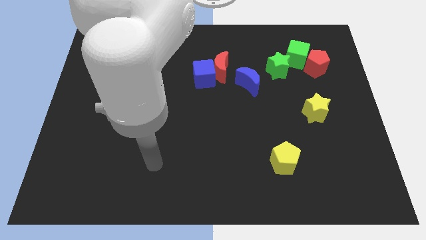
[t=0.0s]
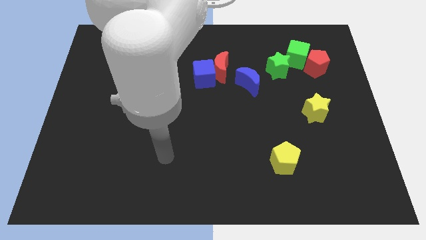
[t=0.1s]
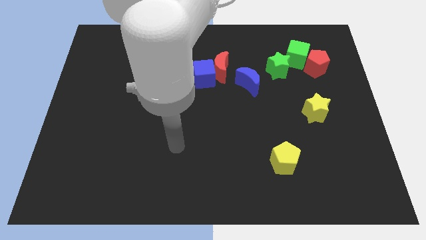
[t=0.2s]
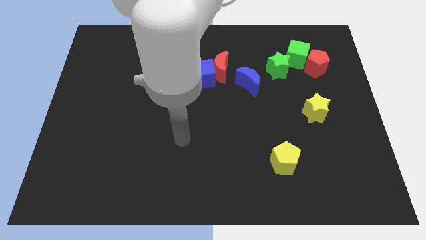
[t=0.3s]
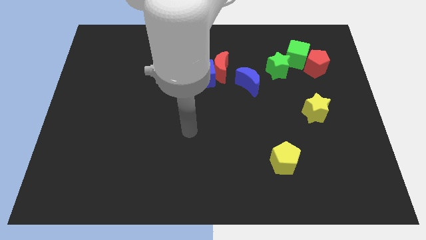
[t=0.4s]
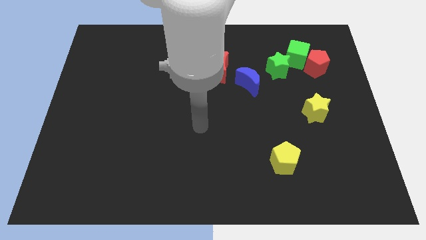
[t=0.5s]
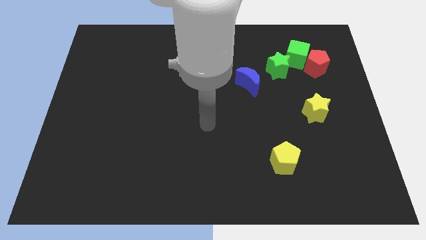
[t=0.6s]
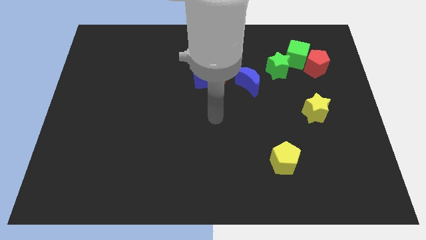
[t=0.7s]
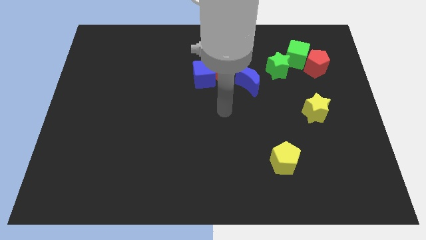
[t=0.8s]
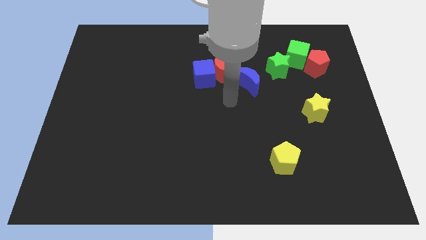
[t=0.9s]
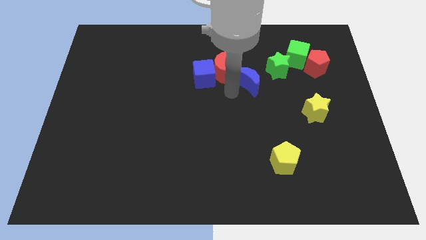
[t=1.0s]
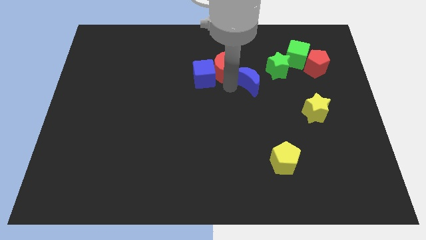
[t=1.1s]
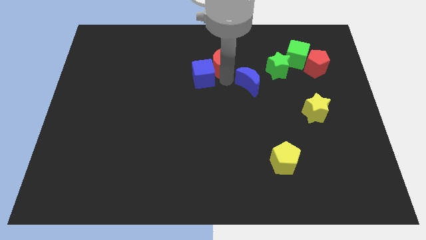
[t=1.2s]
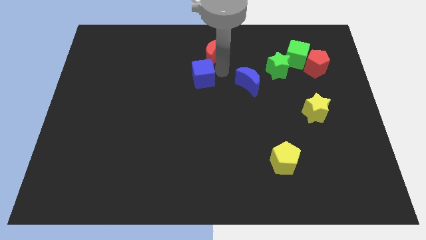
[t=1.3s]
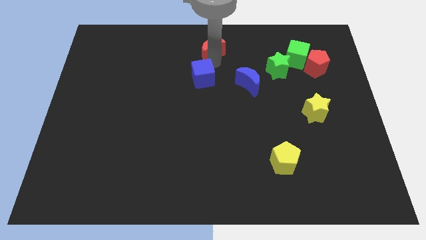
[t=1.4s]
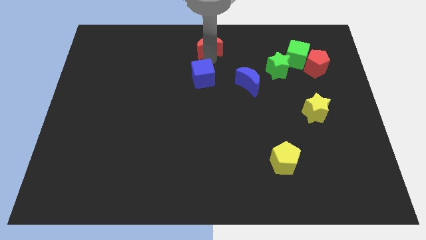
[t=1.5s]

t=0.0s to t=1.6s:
separate the blue cube from the red moon

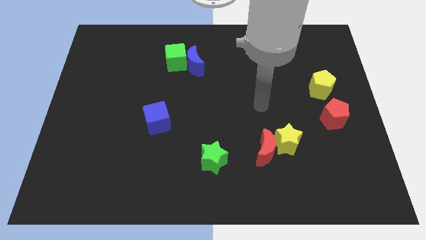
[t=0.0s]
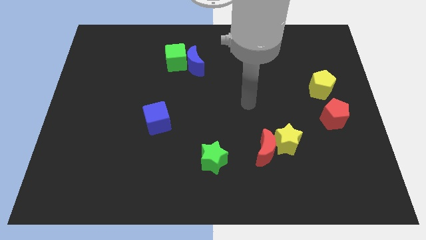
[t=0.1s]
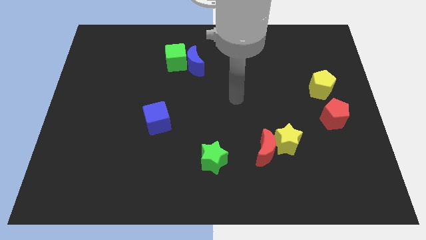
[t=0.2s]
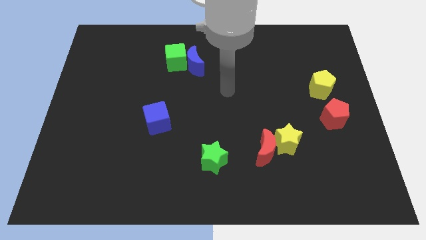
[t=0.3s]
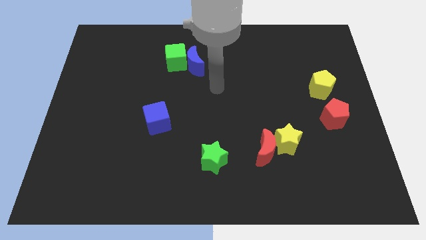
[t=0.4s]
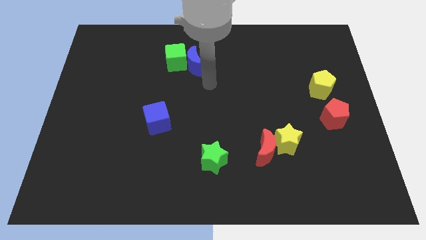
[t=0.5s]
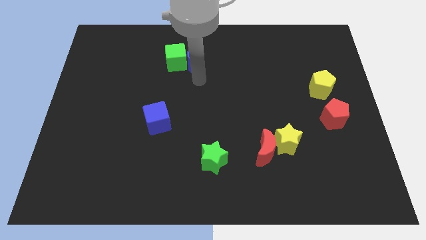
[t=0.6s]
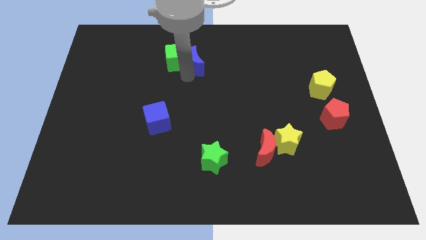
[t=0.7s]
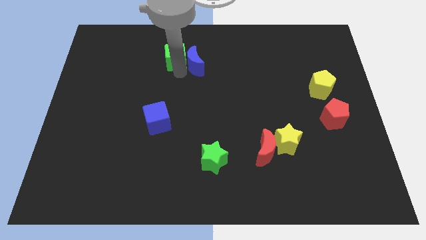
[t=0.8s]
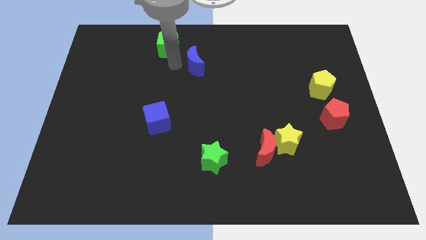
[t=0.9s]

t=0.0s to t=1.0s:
separate the blue moon from the green cube

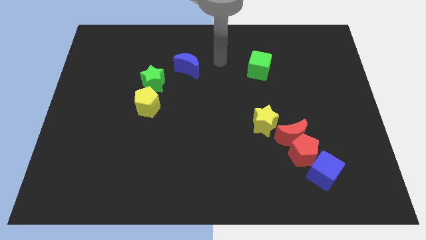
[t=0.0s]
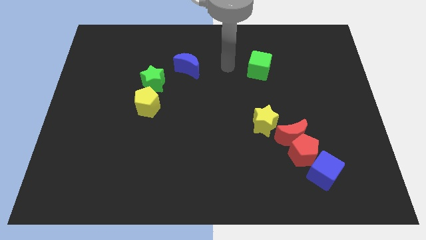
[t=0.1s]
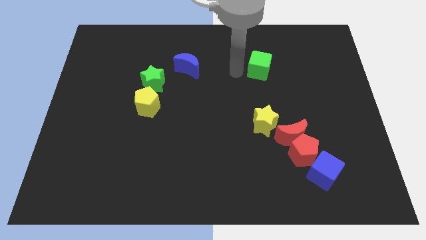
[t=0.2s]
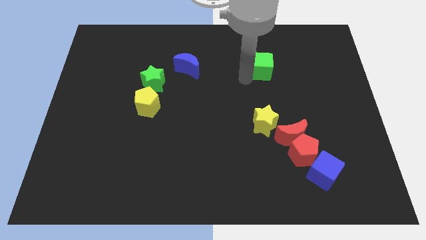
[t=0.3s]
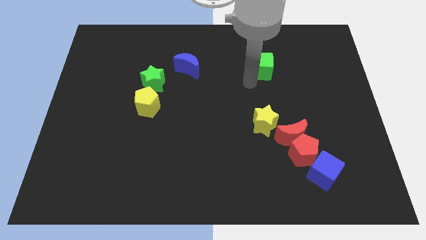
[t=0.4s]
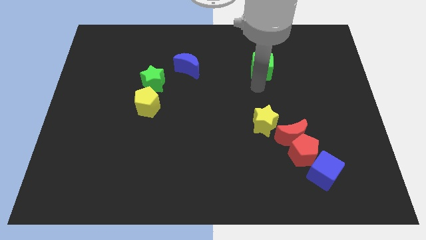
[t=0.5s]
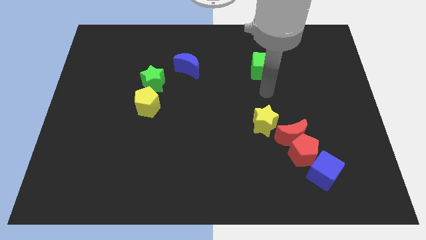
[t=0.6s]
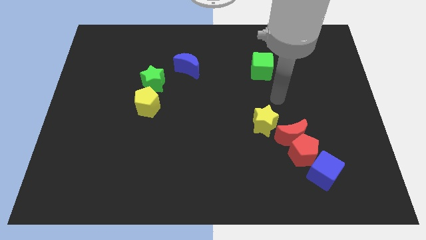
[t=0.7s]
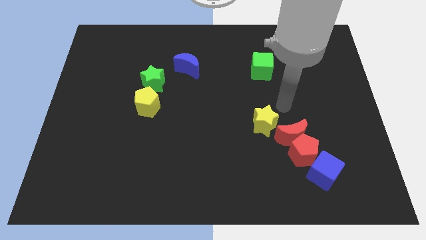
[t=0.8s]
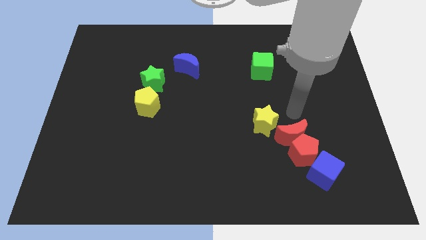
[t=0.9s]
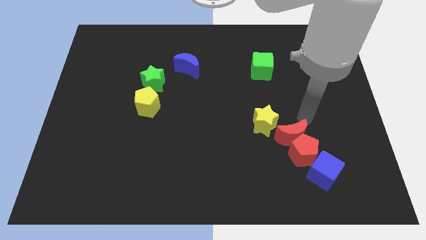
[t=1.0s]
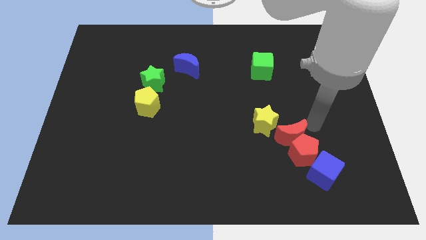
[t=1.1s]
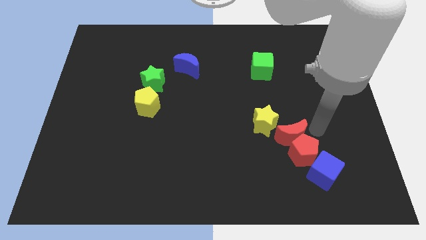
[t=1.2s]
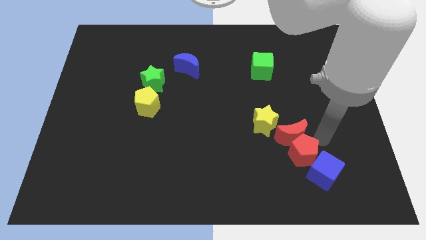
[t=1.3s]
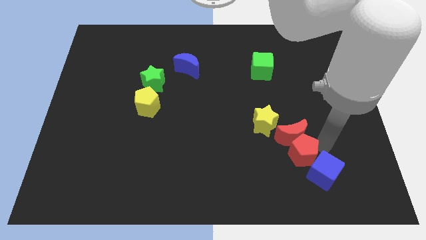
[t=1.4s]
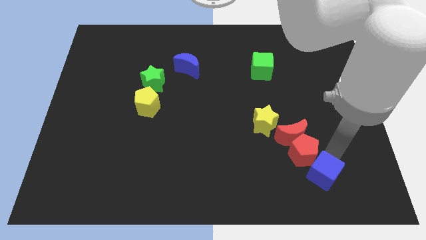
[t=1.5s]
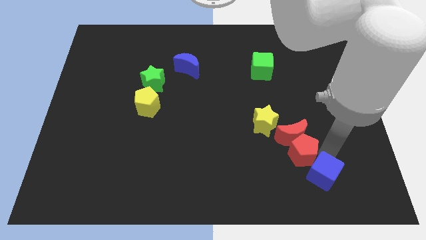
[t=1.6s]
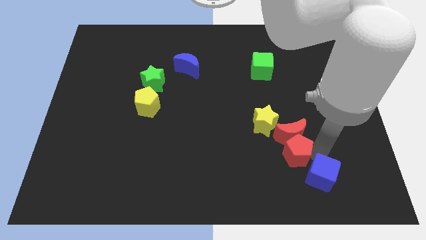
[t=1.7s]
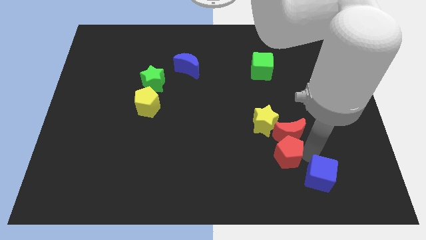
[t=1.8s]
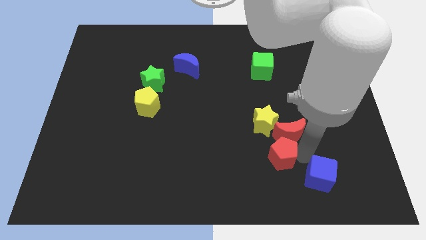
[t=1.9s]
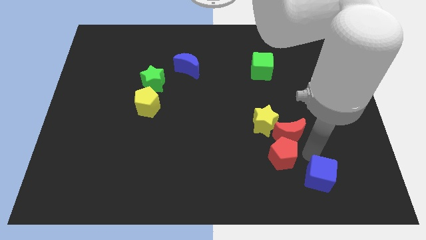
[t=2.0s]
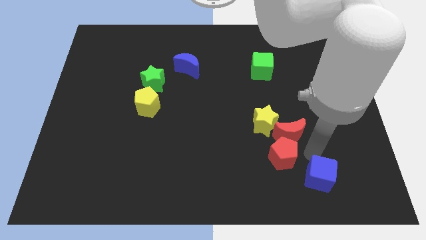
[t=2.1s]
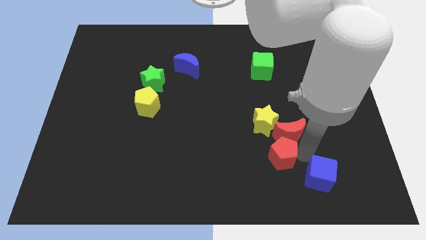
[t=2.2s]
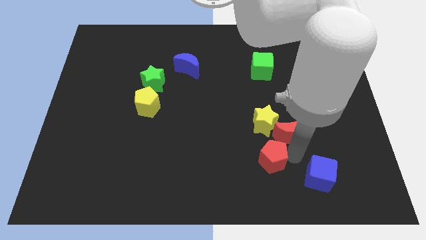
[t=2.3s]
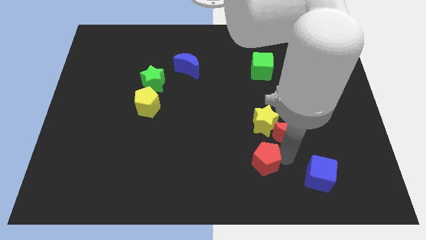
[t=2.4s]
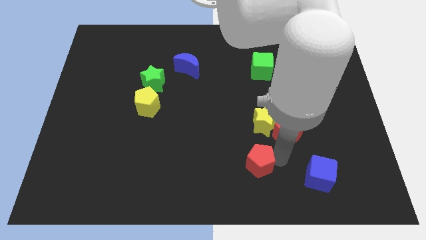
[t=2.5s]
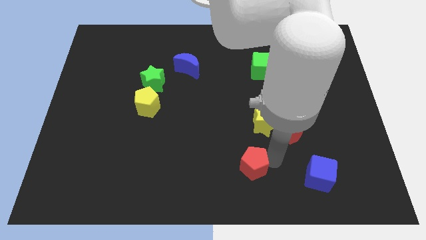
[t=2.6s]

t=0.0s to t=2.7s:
move the red pentagon away from the red moon and blue cube

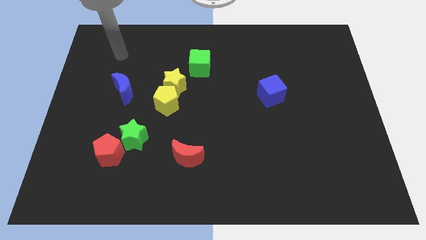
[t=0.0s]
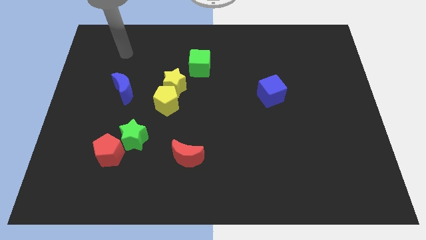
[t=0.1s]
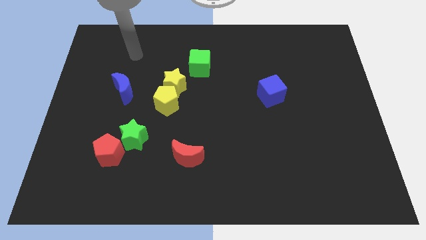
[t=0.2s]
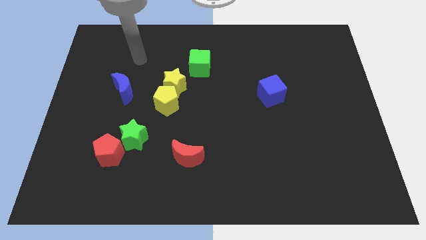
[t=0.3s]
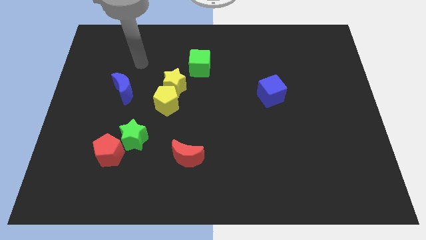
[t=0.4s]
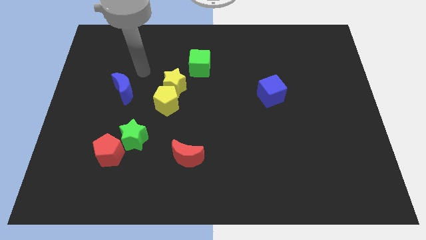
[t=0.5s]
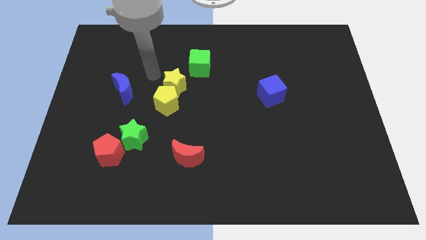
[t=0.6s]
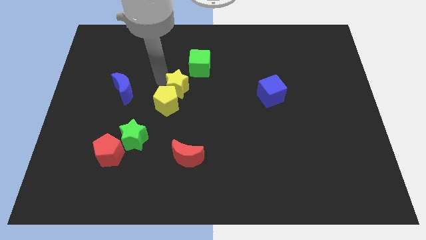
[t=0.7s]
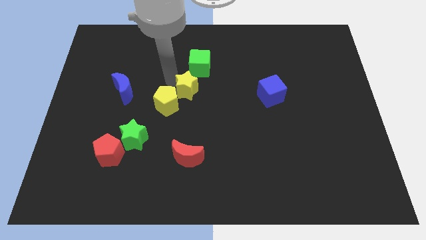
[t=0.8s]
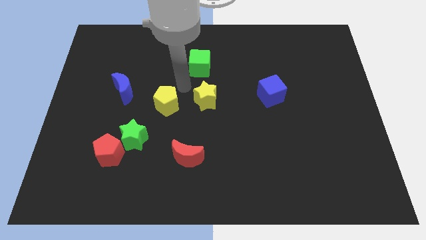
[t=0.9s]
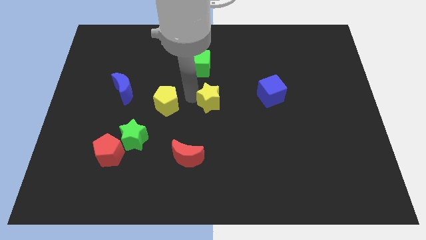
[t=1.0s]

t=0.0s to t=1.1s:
separate the yellow pentagon from the yellow star

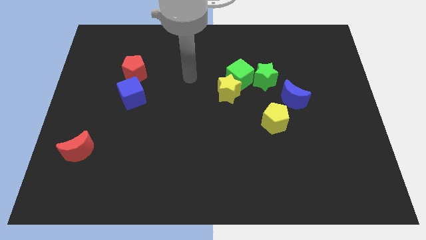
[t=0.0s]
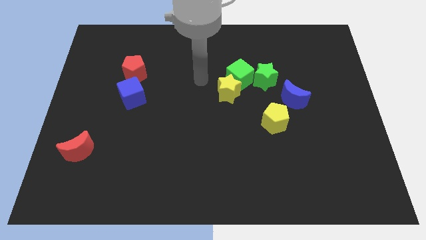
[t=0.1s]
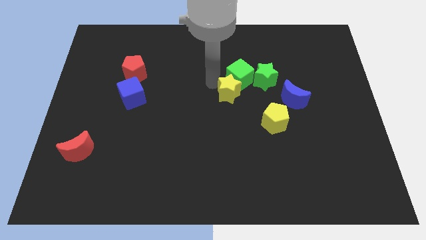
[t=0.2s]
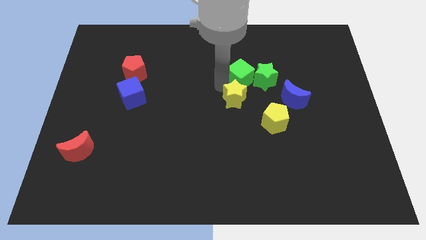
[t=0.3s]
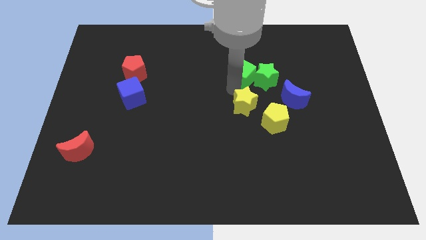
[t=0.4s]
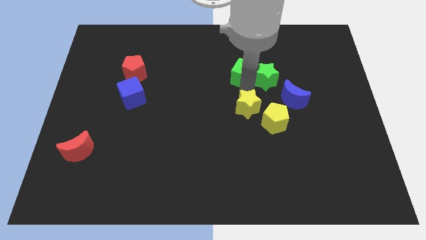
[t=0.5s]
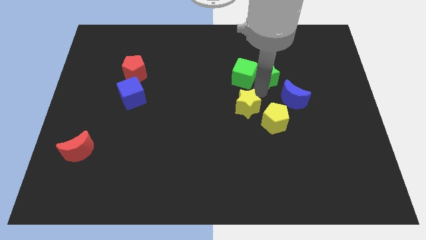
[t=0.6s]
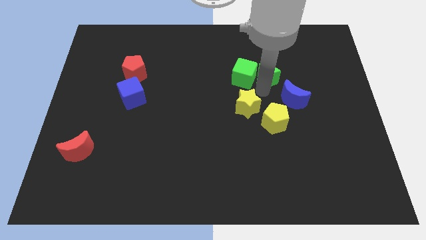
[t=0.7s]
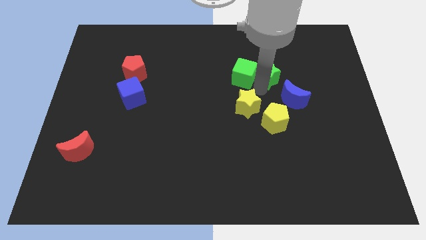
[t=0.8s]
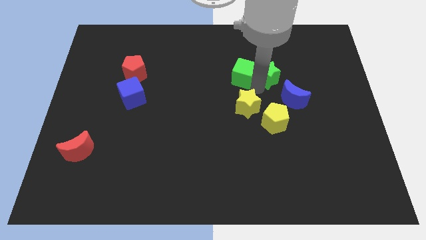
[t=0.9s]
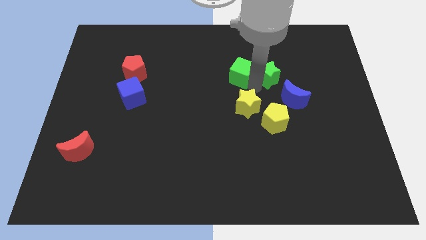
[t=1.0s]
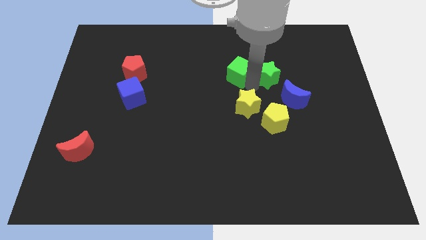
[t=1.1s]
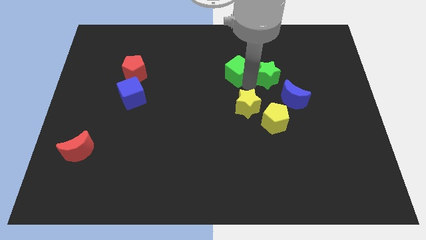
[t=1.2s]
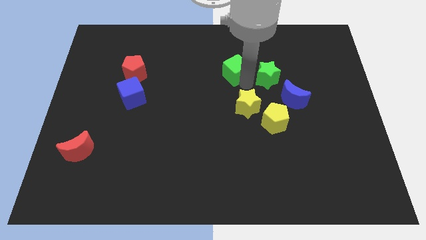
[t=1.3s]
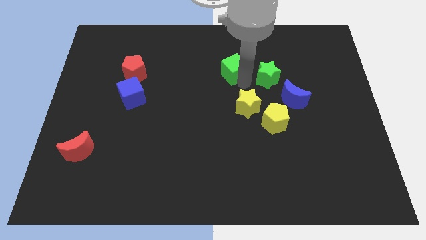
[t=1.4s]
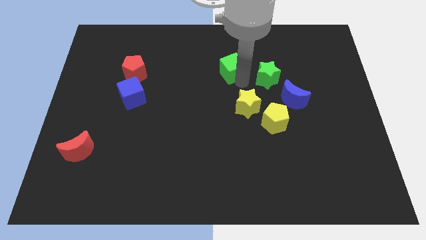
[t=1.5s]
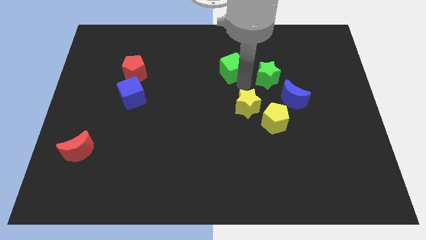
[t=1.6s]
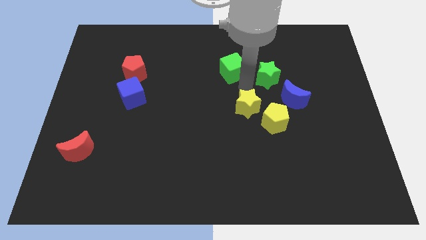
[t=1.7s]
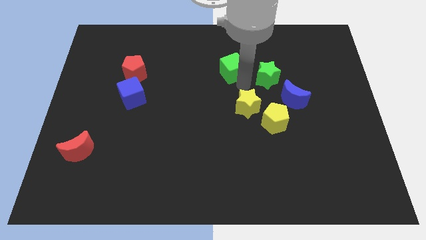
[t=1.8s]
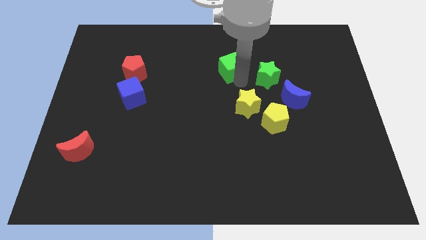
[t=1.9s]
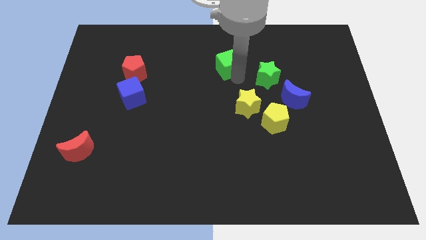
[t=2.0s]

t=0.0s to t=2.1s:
move the green cube away from the yellow star and green star

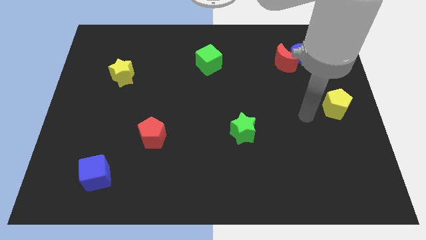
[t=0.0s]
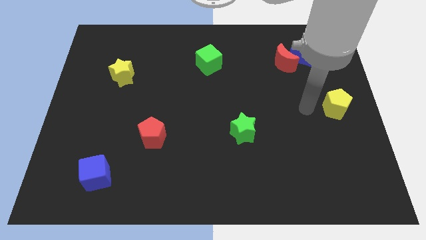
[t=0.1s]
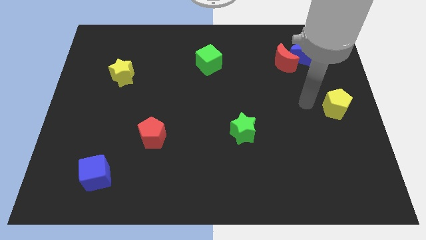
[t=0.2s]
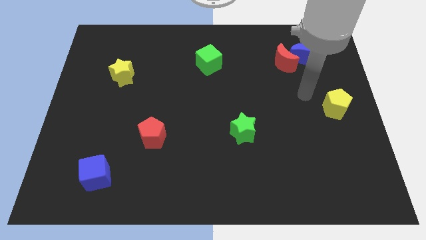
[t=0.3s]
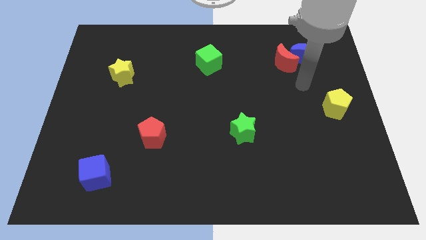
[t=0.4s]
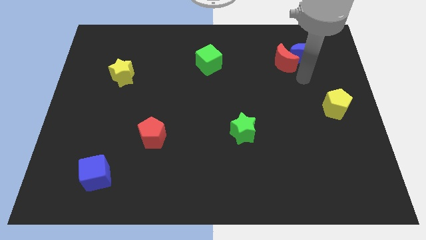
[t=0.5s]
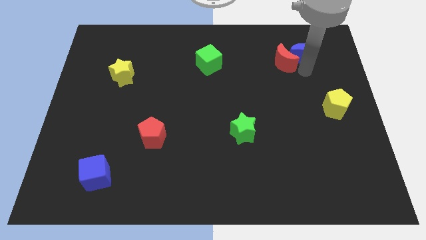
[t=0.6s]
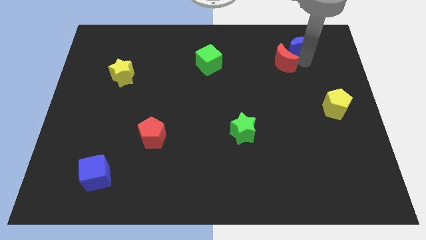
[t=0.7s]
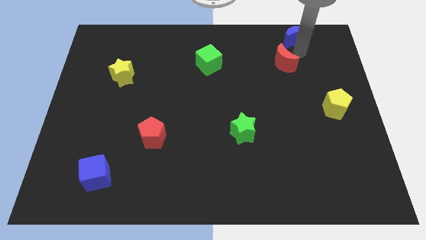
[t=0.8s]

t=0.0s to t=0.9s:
pull the red moon apart from the blue moon
